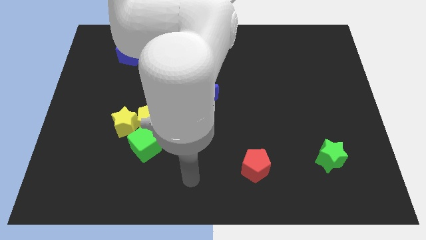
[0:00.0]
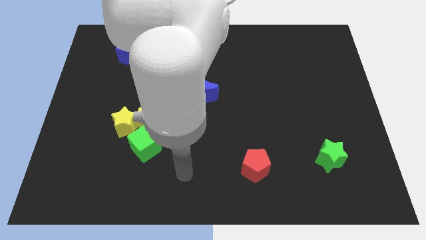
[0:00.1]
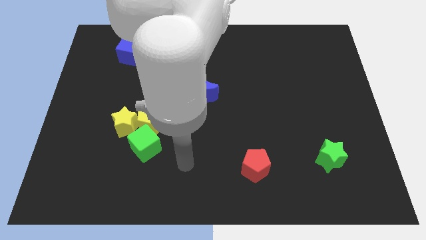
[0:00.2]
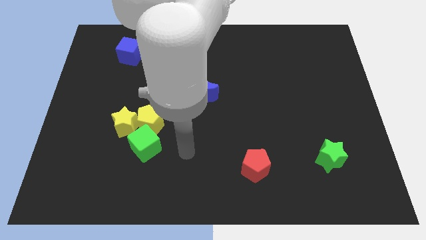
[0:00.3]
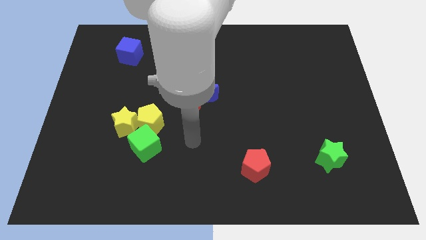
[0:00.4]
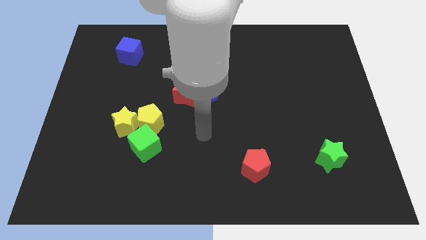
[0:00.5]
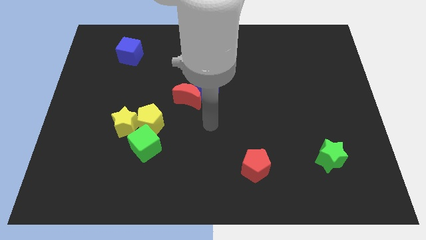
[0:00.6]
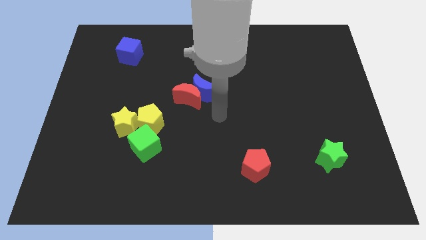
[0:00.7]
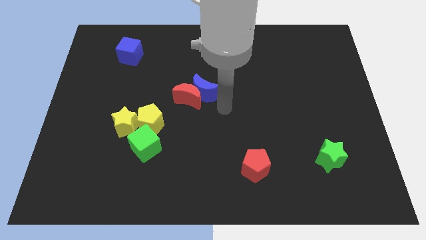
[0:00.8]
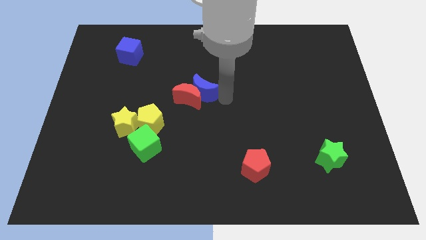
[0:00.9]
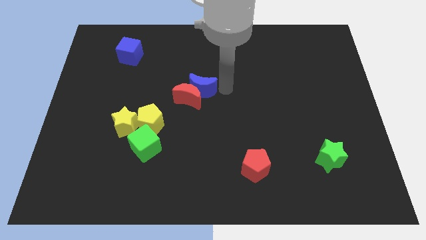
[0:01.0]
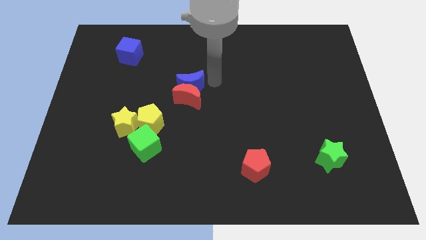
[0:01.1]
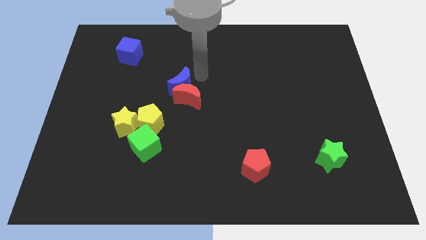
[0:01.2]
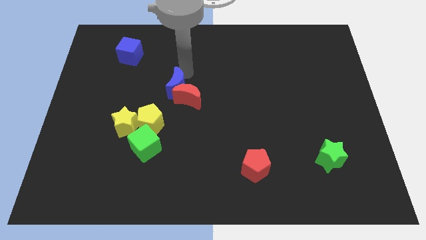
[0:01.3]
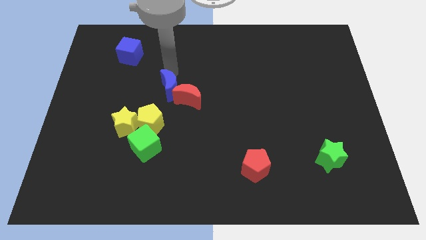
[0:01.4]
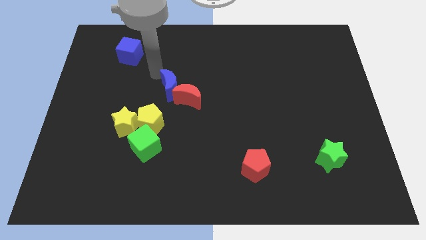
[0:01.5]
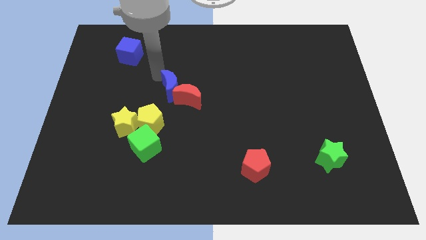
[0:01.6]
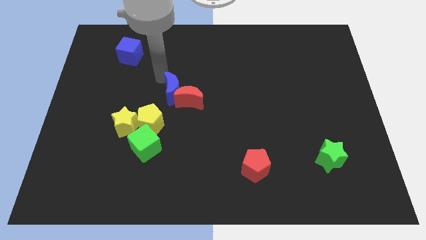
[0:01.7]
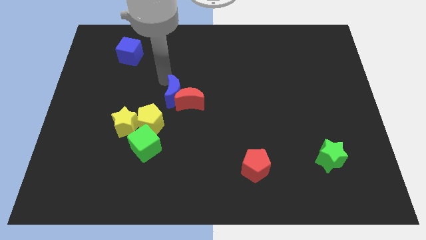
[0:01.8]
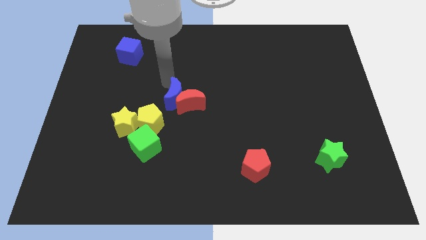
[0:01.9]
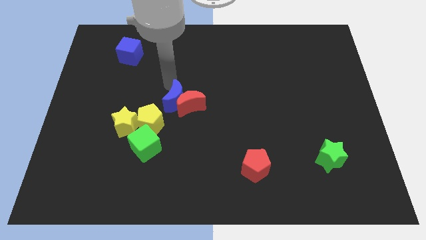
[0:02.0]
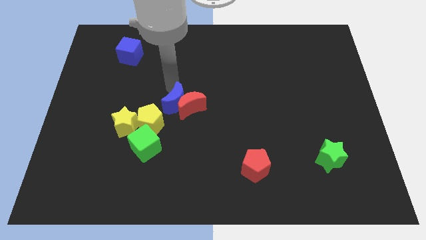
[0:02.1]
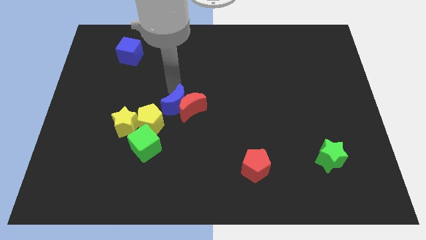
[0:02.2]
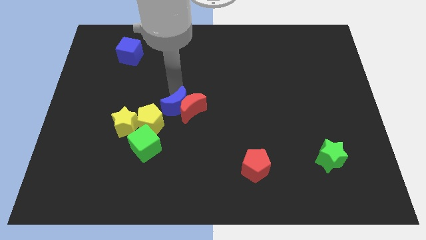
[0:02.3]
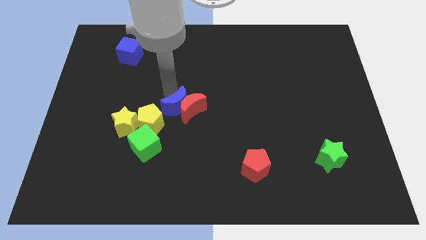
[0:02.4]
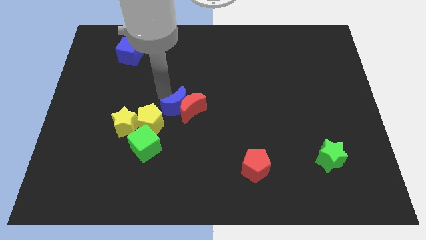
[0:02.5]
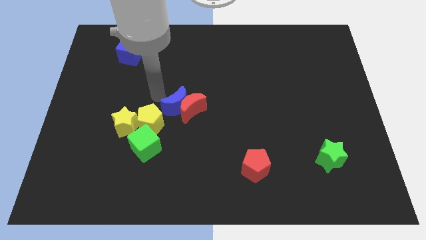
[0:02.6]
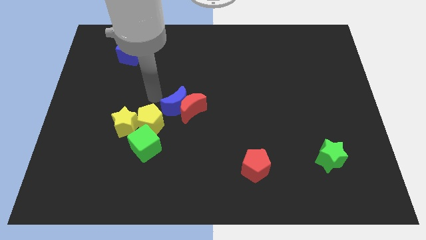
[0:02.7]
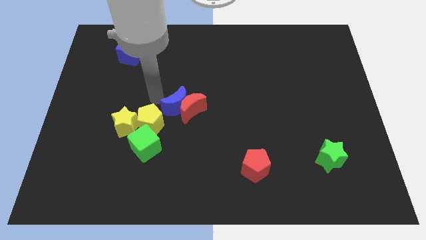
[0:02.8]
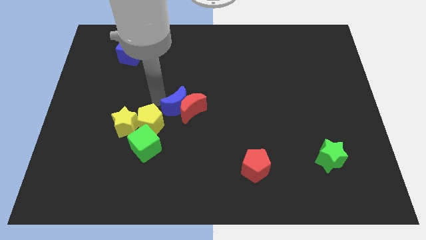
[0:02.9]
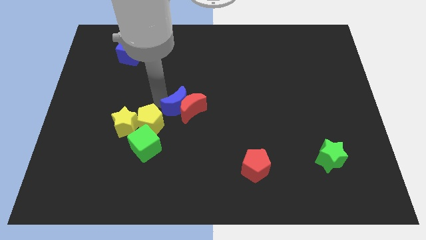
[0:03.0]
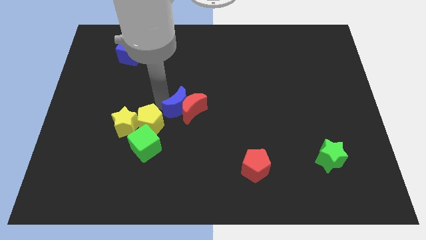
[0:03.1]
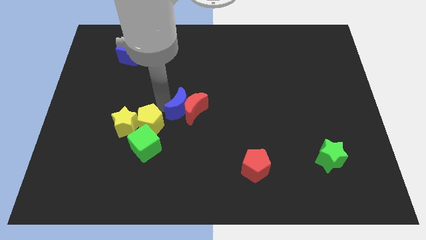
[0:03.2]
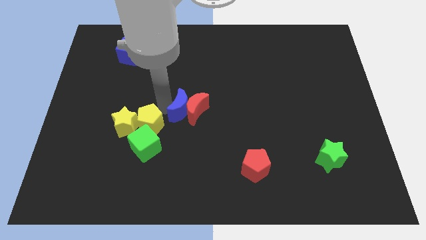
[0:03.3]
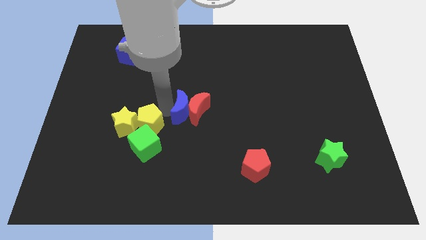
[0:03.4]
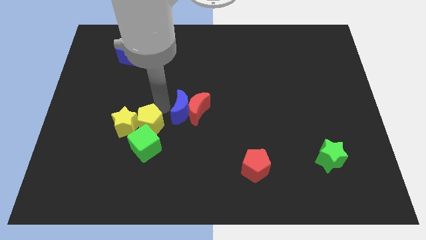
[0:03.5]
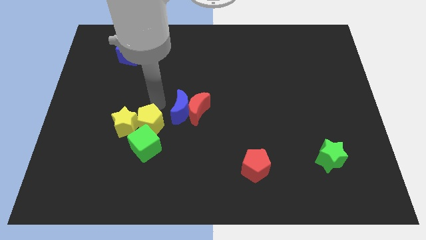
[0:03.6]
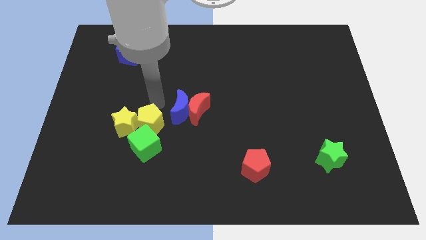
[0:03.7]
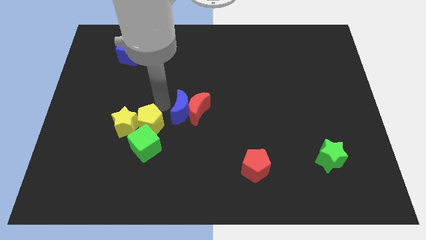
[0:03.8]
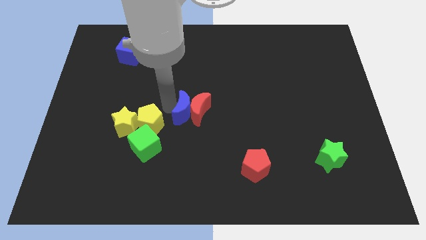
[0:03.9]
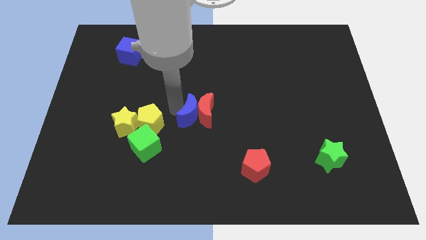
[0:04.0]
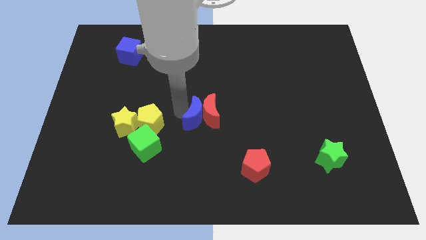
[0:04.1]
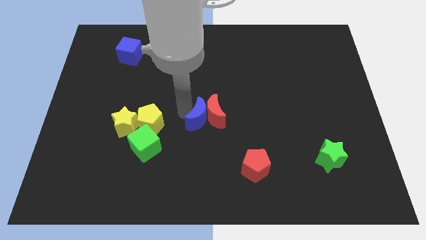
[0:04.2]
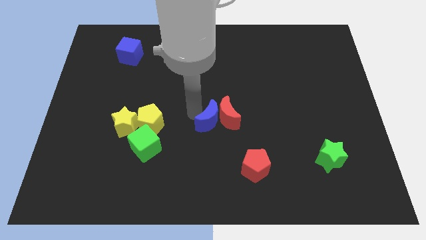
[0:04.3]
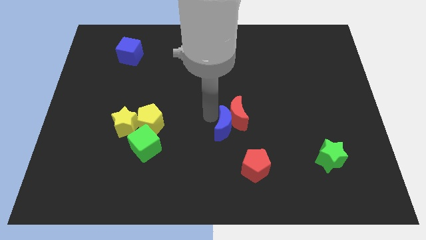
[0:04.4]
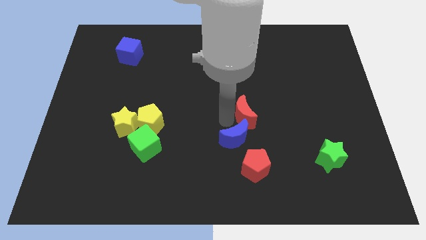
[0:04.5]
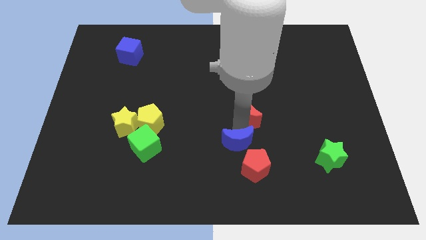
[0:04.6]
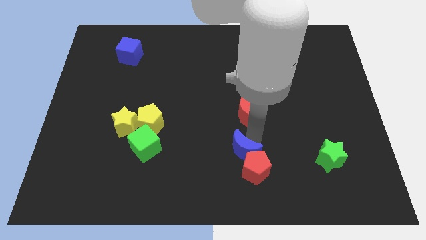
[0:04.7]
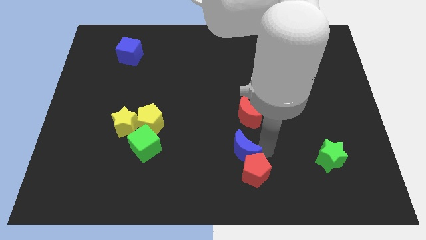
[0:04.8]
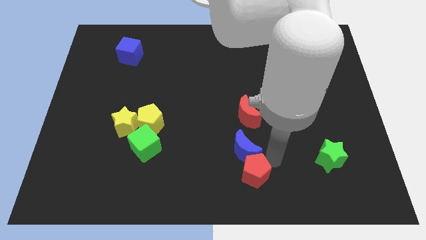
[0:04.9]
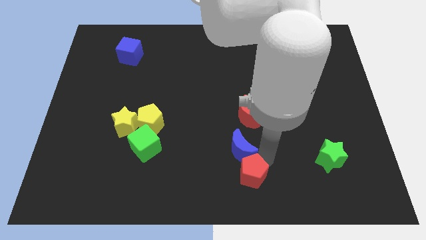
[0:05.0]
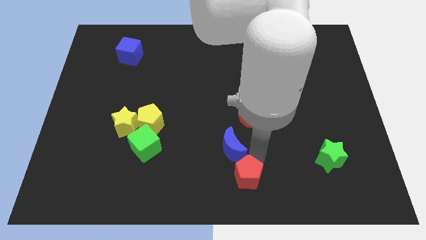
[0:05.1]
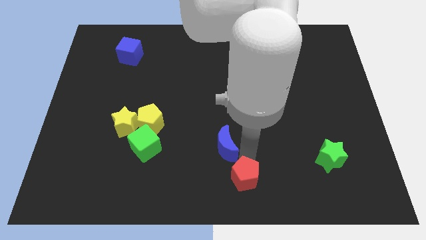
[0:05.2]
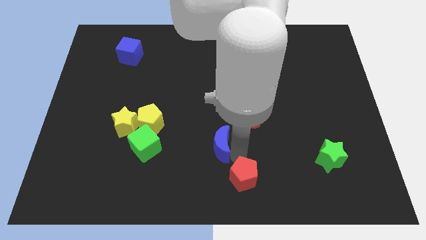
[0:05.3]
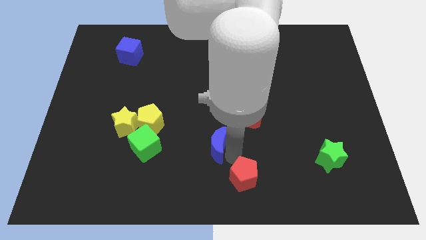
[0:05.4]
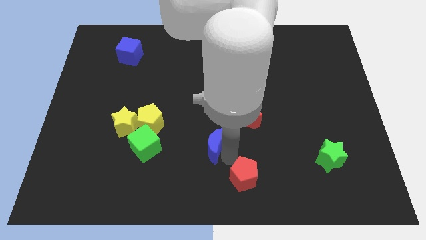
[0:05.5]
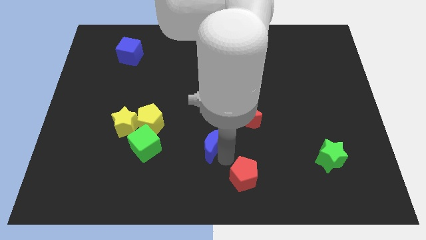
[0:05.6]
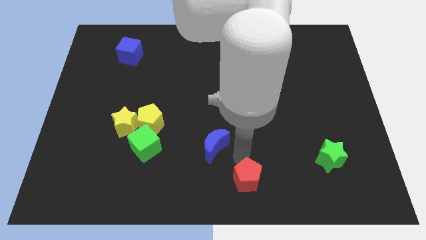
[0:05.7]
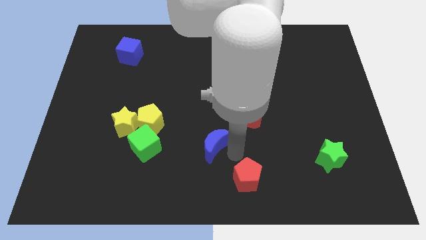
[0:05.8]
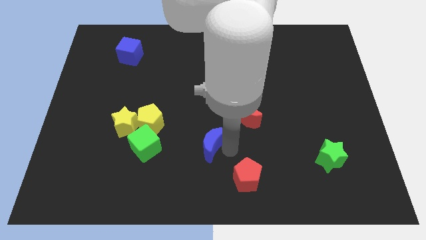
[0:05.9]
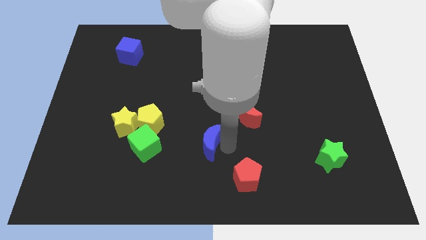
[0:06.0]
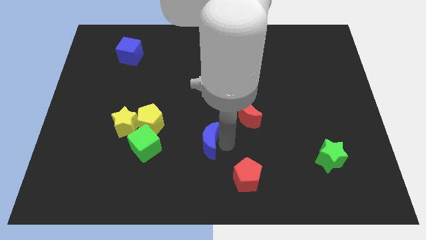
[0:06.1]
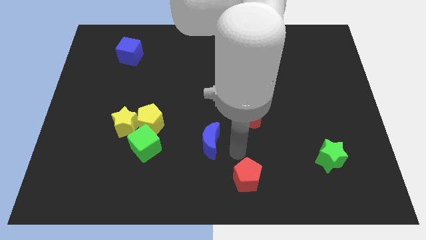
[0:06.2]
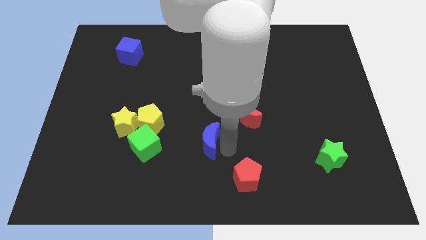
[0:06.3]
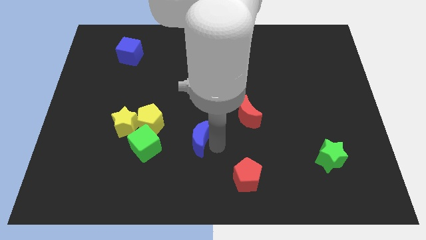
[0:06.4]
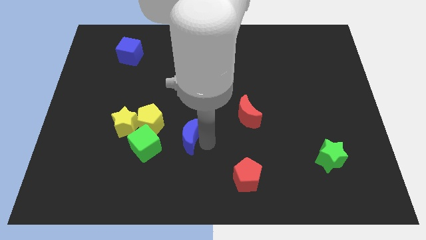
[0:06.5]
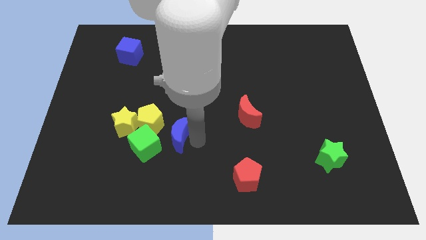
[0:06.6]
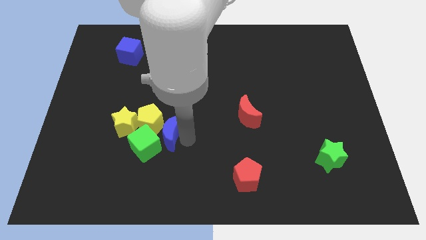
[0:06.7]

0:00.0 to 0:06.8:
move the blue moon to the yellow pentagon
